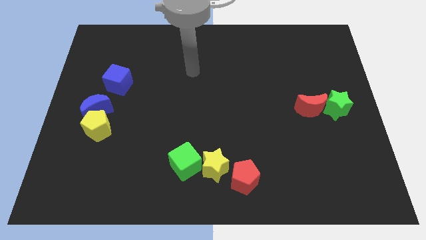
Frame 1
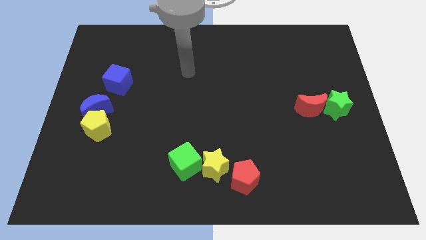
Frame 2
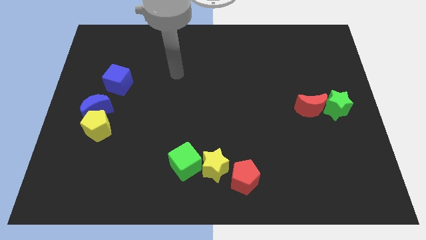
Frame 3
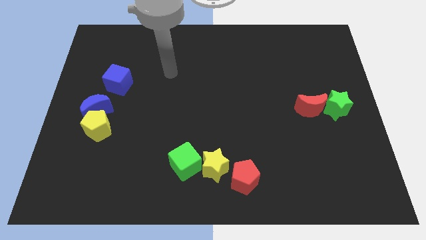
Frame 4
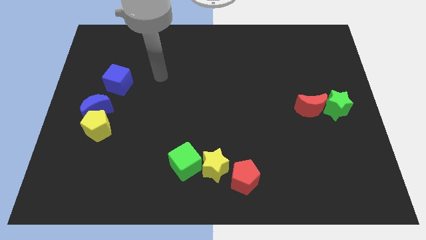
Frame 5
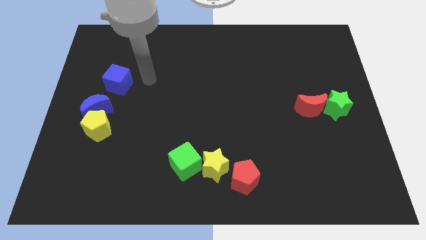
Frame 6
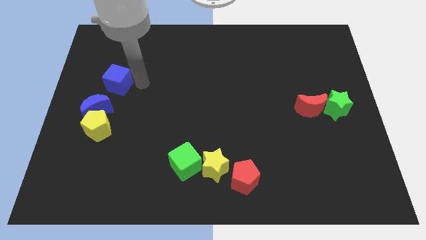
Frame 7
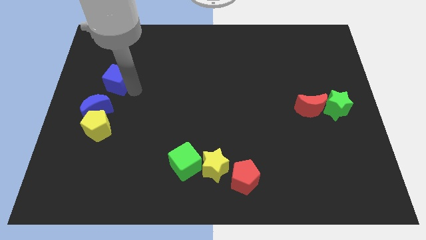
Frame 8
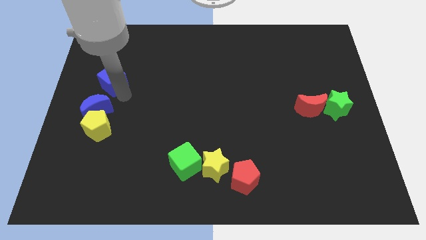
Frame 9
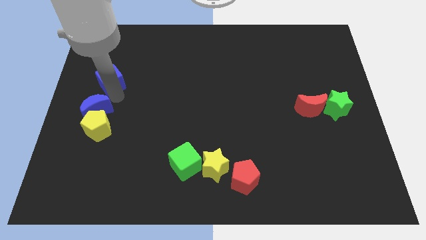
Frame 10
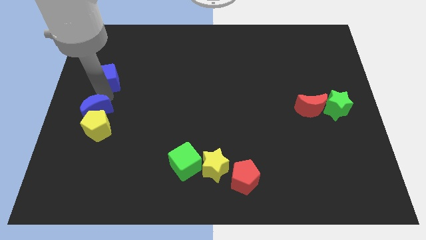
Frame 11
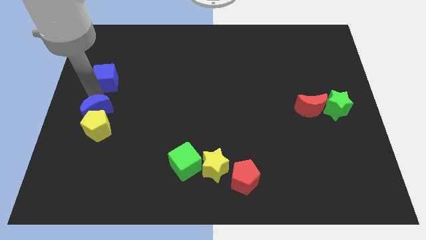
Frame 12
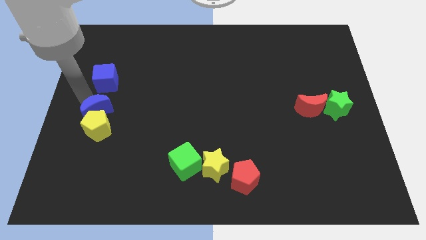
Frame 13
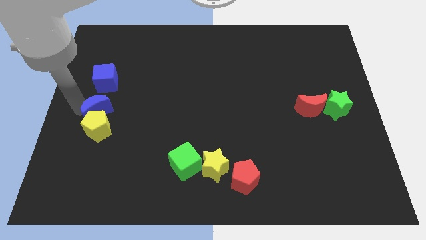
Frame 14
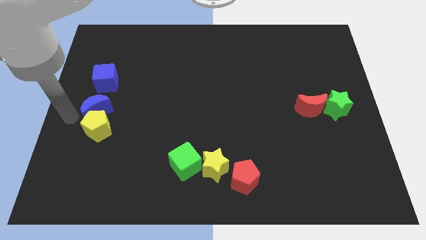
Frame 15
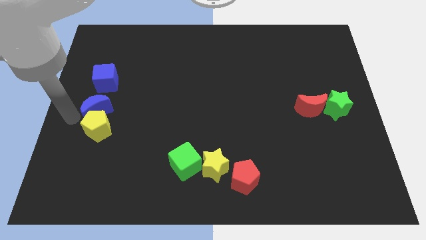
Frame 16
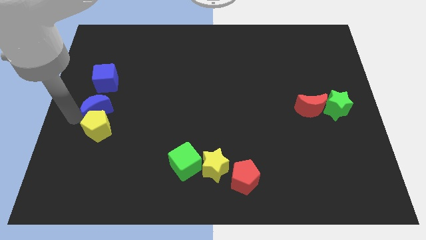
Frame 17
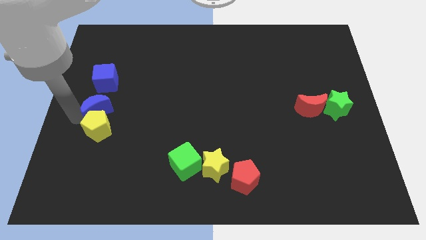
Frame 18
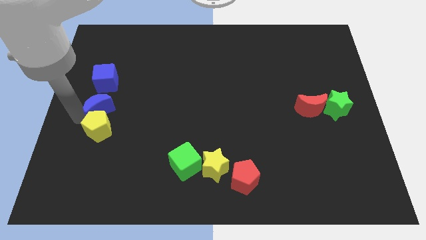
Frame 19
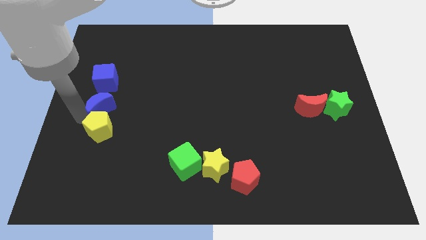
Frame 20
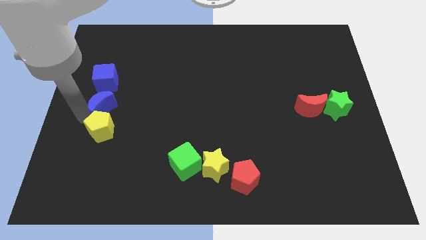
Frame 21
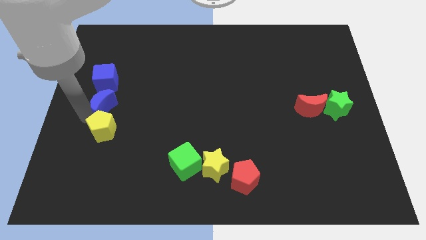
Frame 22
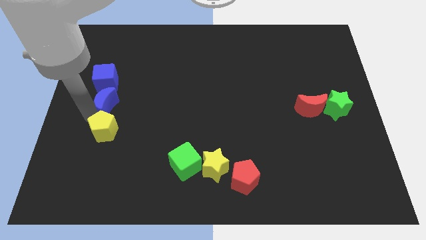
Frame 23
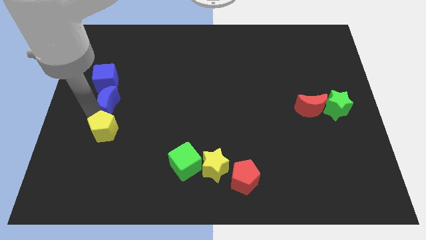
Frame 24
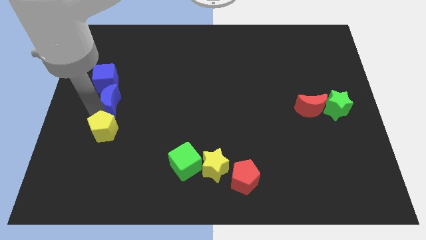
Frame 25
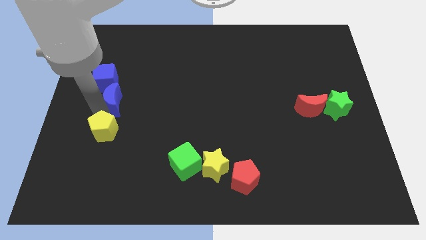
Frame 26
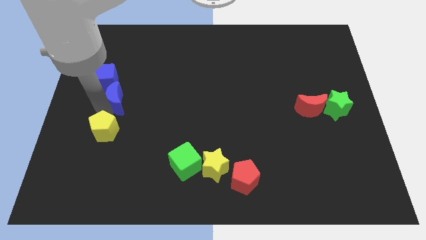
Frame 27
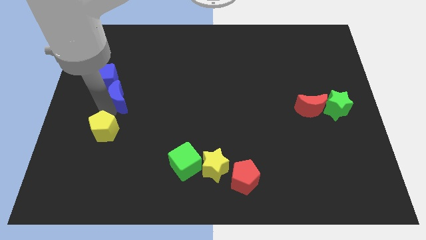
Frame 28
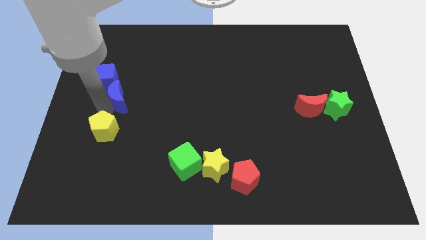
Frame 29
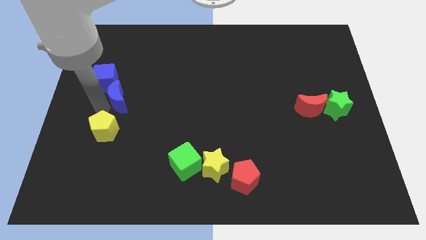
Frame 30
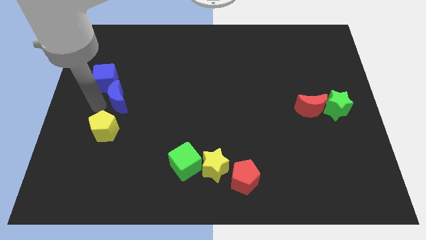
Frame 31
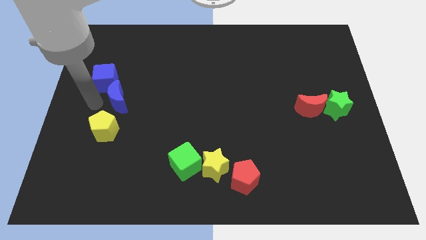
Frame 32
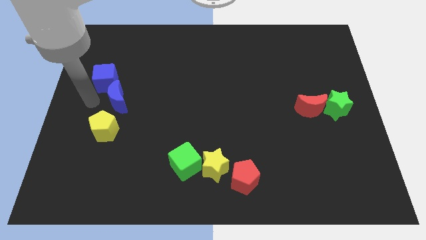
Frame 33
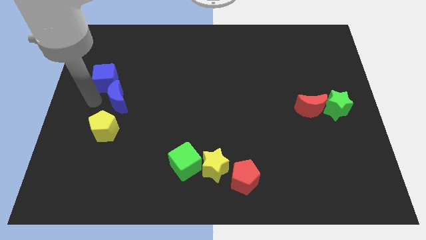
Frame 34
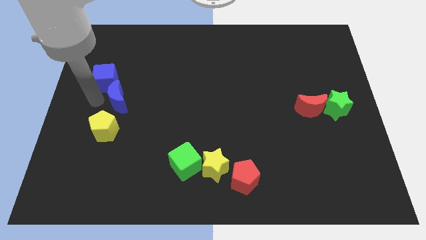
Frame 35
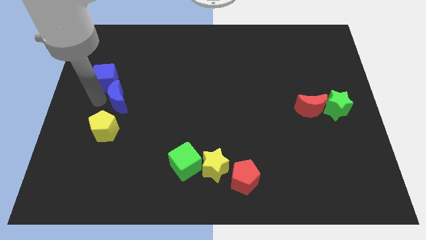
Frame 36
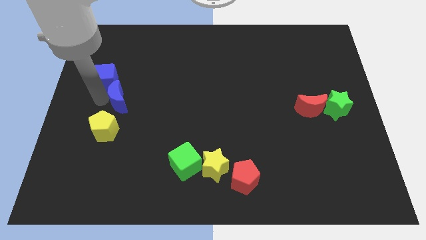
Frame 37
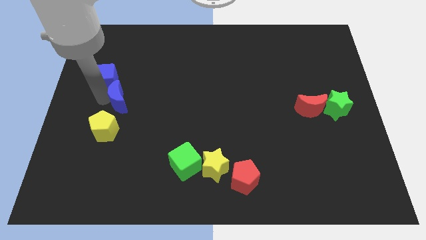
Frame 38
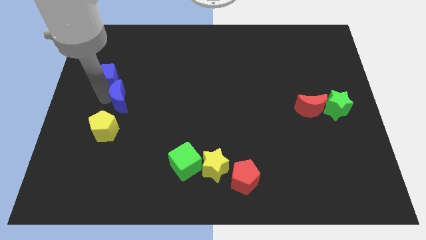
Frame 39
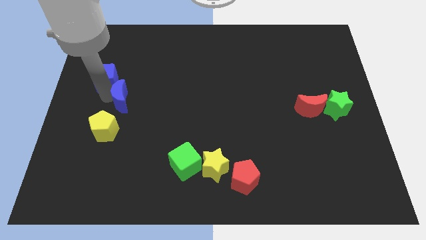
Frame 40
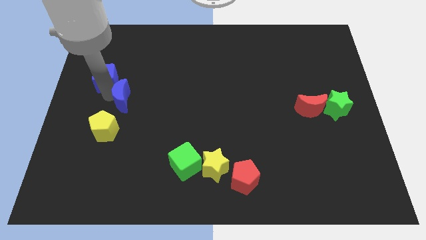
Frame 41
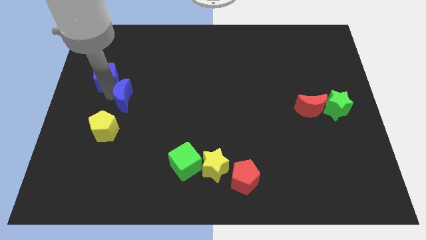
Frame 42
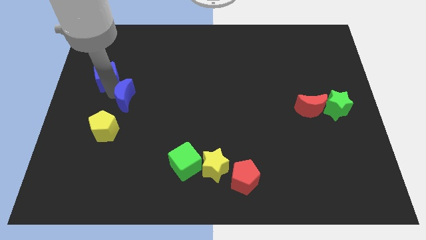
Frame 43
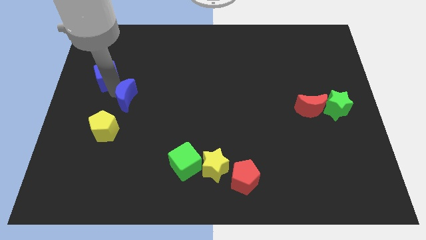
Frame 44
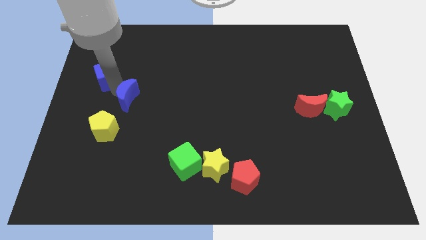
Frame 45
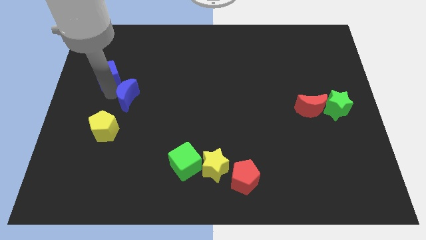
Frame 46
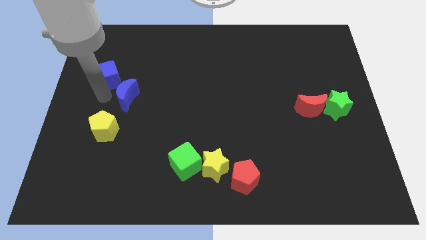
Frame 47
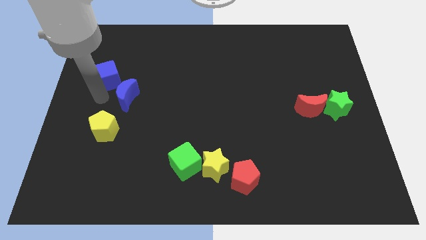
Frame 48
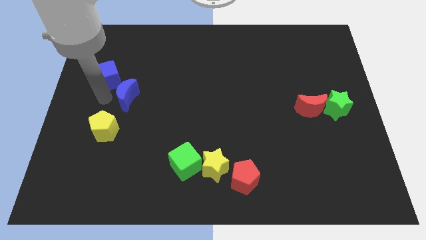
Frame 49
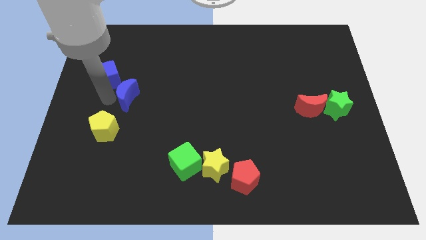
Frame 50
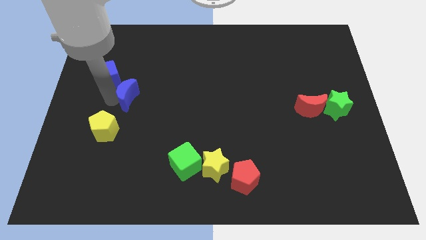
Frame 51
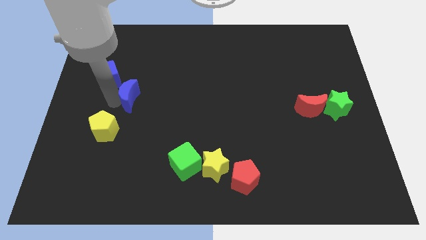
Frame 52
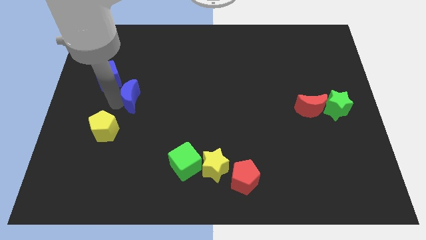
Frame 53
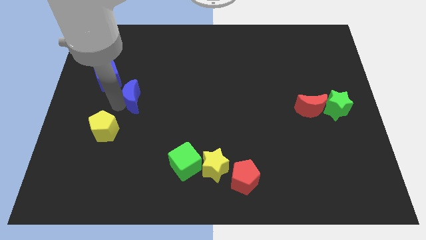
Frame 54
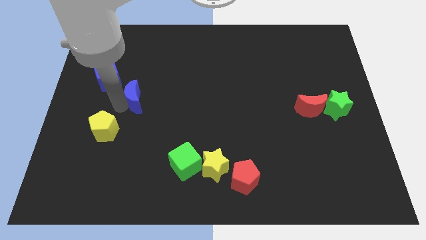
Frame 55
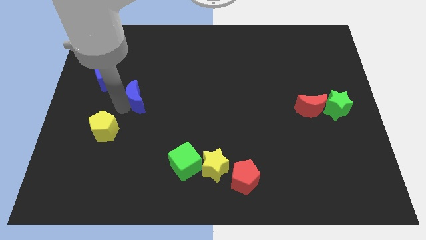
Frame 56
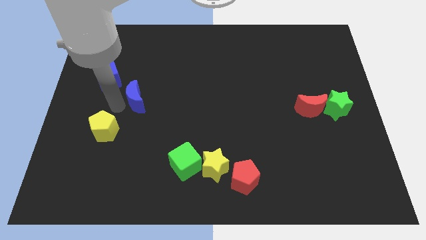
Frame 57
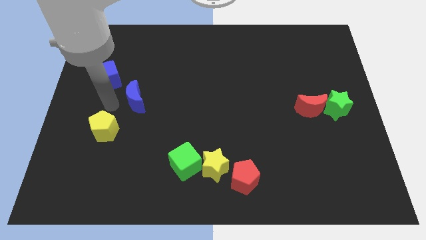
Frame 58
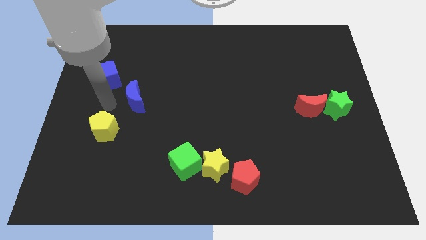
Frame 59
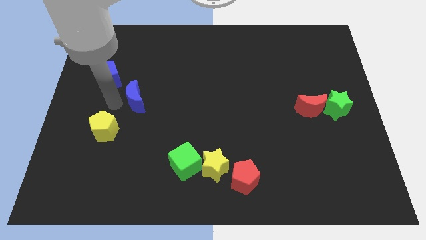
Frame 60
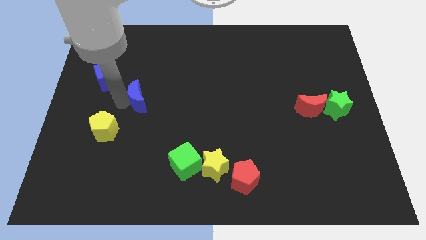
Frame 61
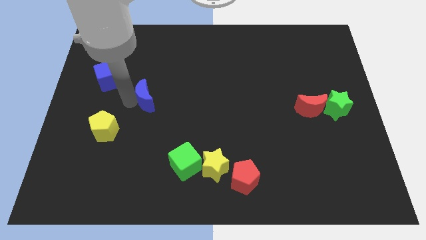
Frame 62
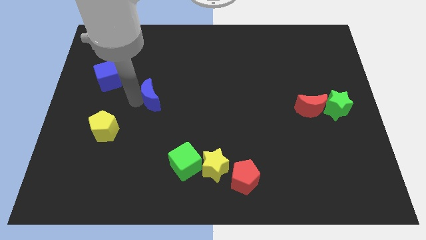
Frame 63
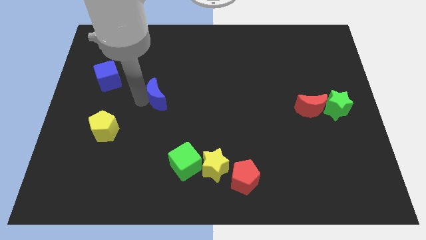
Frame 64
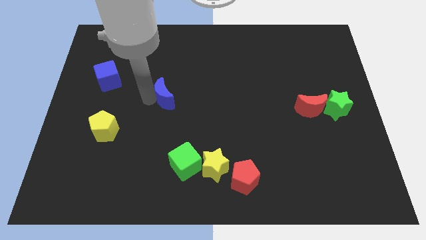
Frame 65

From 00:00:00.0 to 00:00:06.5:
move the blue moon to the middle

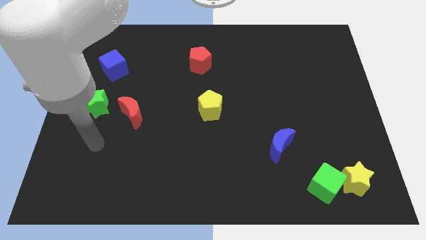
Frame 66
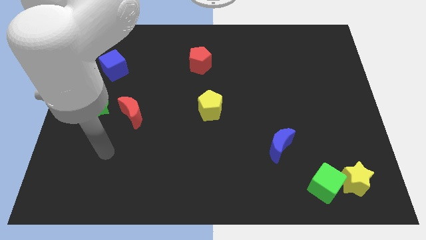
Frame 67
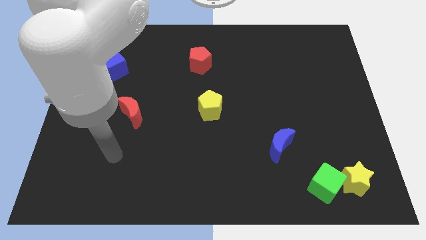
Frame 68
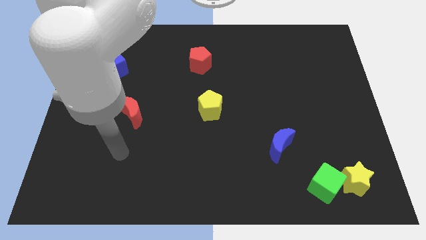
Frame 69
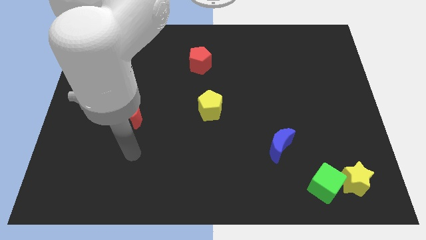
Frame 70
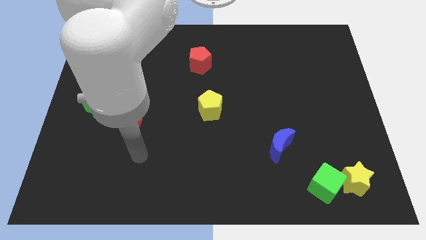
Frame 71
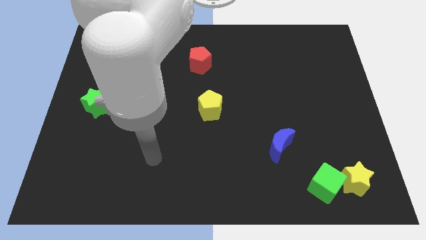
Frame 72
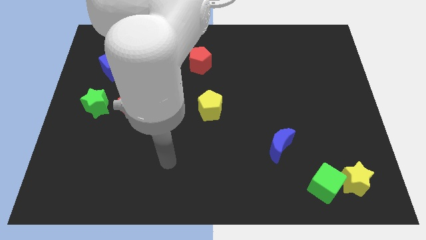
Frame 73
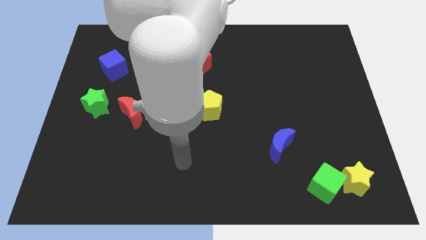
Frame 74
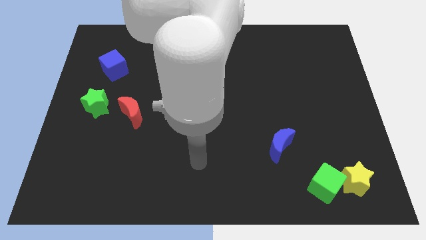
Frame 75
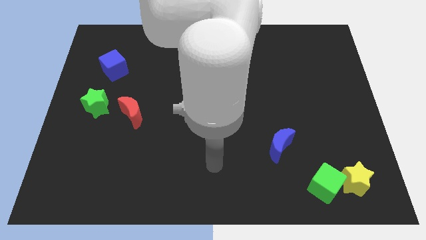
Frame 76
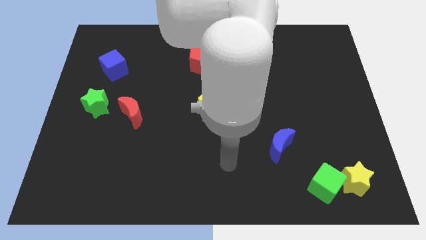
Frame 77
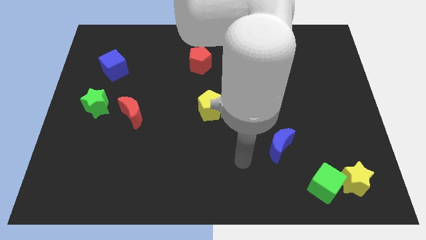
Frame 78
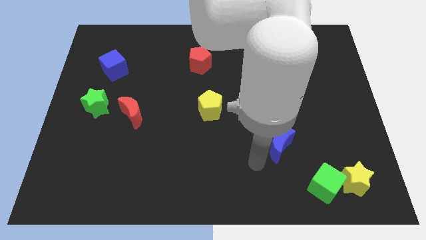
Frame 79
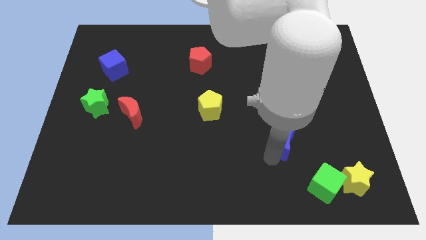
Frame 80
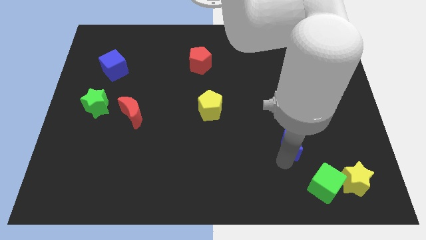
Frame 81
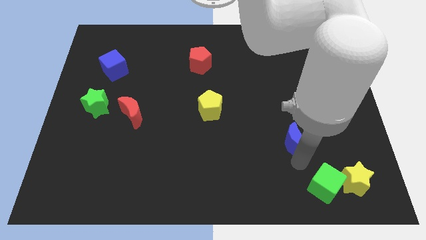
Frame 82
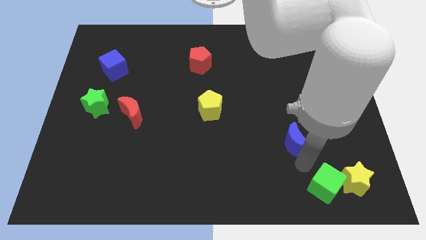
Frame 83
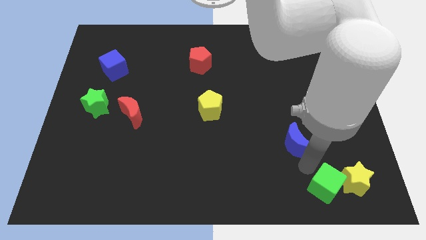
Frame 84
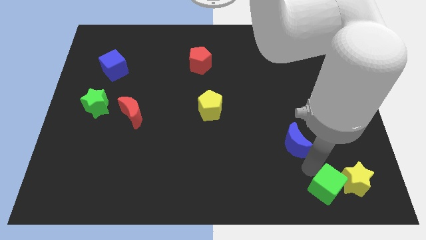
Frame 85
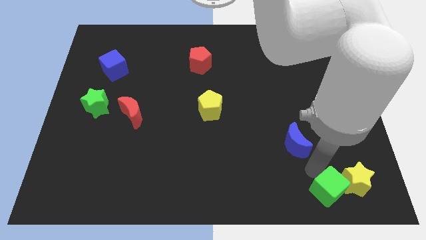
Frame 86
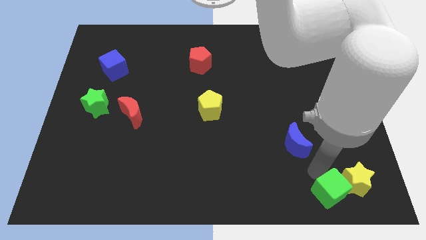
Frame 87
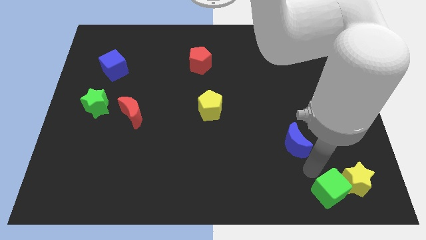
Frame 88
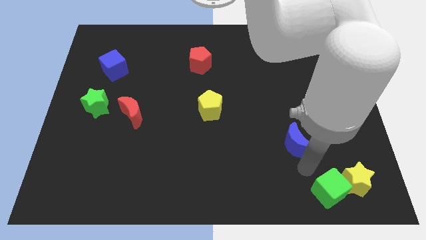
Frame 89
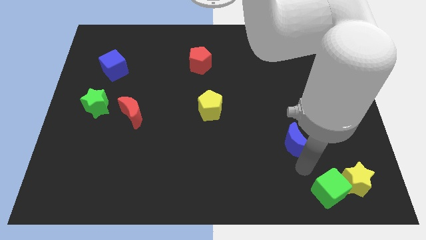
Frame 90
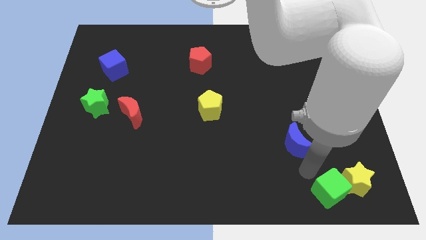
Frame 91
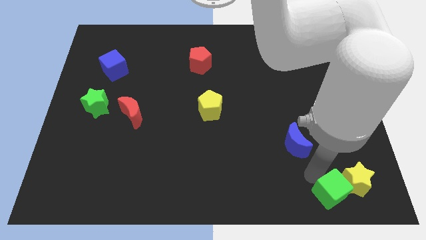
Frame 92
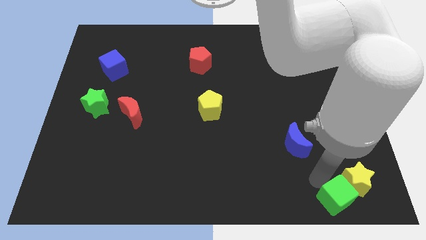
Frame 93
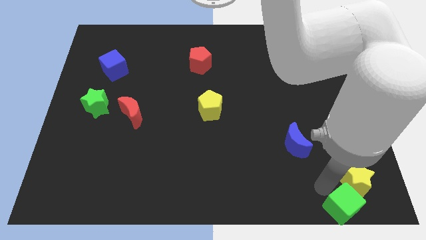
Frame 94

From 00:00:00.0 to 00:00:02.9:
move the green cube to the bottom right
